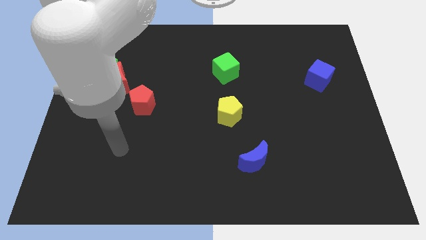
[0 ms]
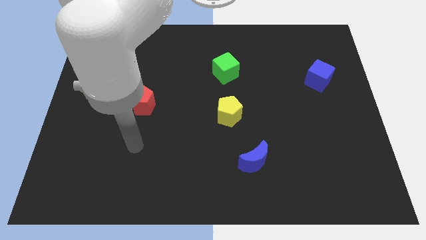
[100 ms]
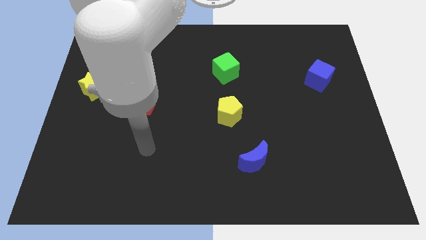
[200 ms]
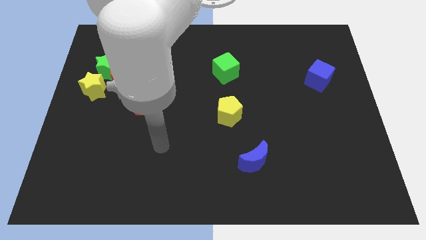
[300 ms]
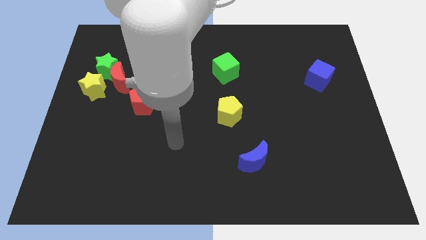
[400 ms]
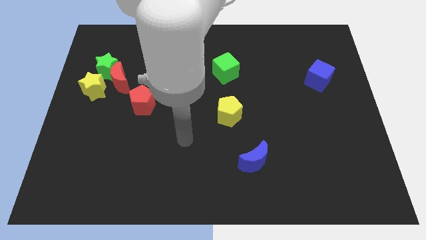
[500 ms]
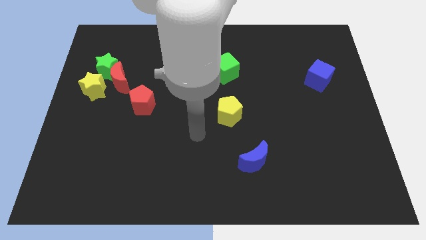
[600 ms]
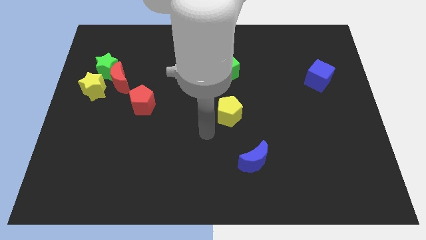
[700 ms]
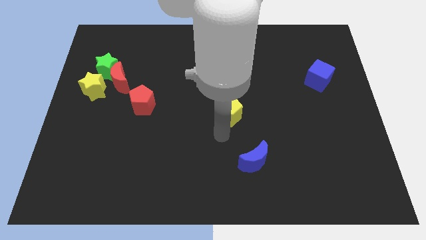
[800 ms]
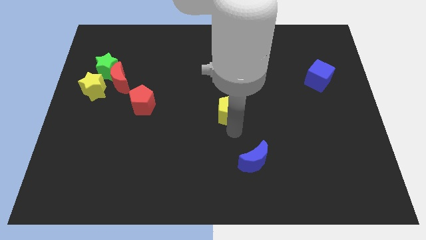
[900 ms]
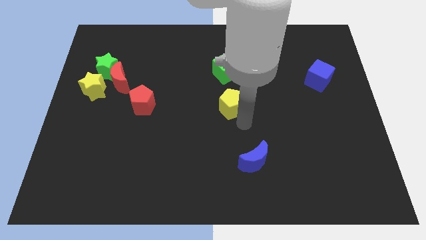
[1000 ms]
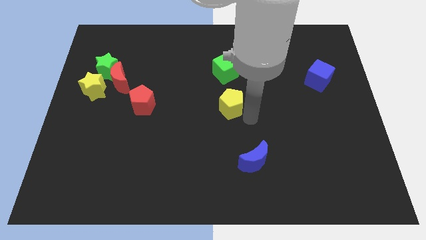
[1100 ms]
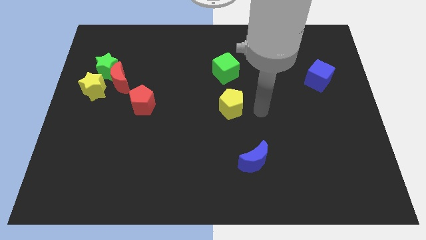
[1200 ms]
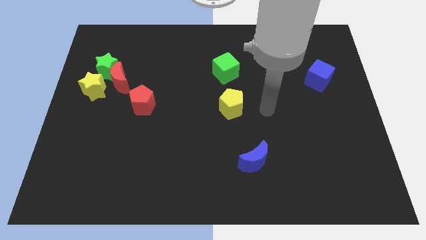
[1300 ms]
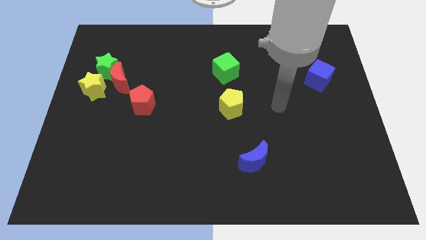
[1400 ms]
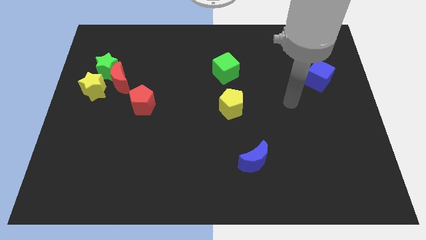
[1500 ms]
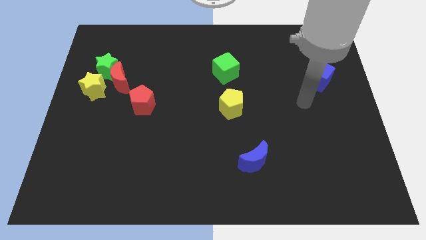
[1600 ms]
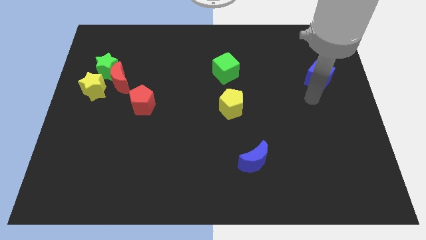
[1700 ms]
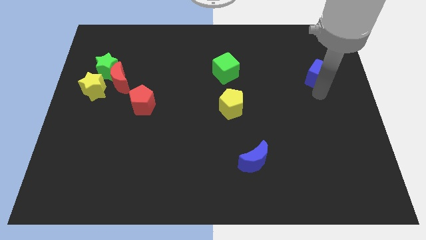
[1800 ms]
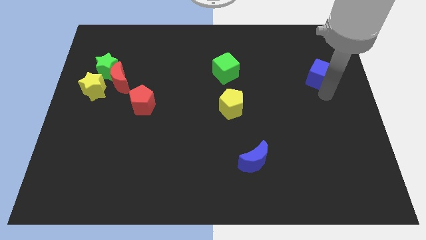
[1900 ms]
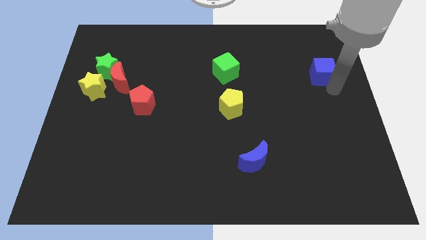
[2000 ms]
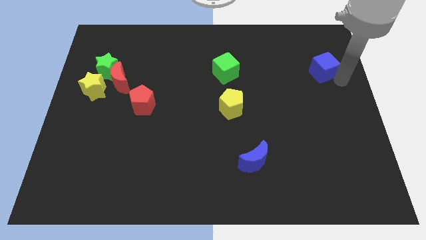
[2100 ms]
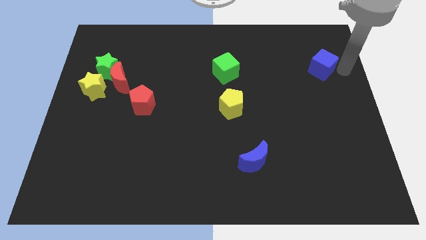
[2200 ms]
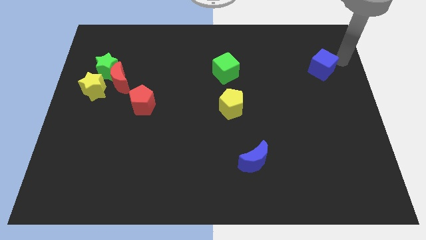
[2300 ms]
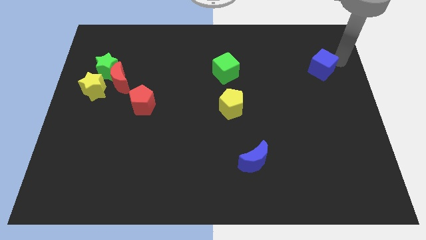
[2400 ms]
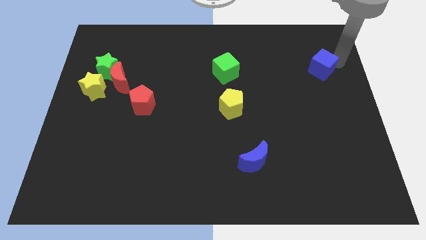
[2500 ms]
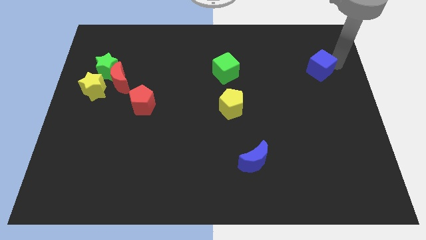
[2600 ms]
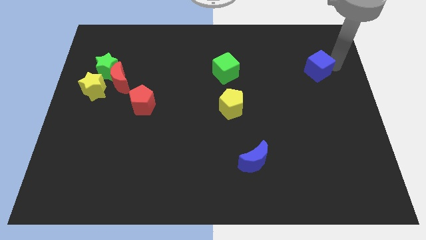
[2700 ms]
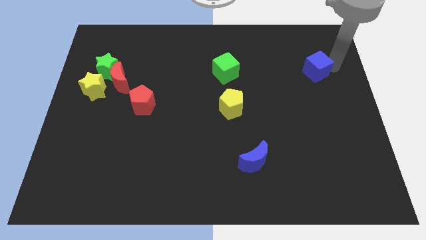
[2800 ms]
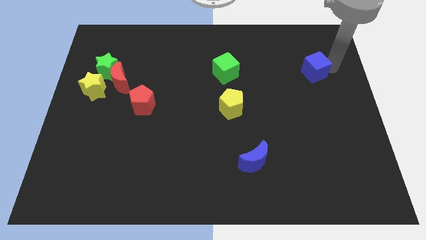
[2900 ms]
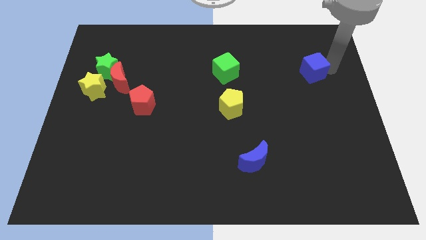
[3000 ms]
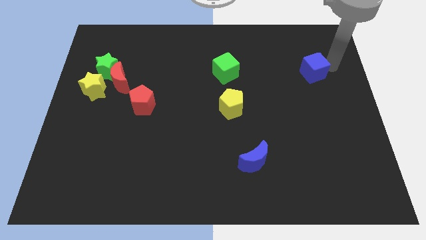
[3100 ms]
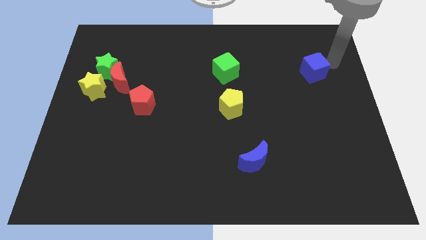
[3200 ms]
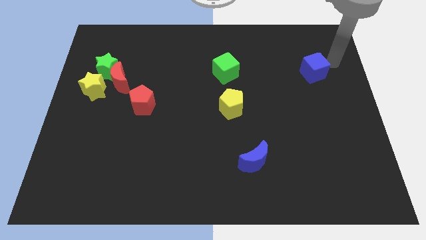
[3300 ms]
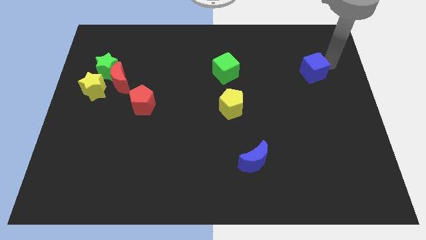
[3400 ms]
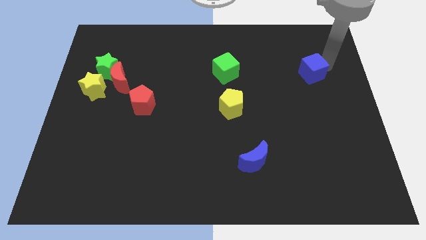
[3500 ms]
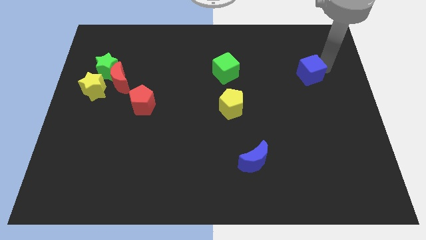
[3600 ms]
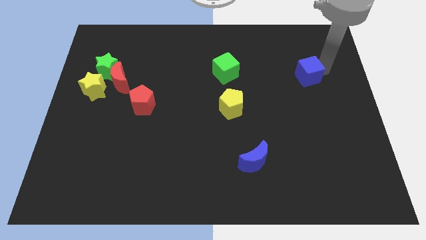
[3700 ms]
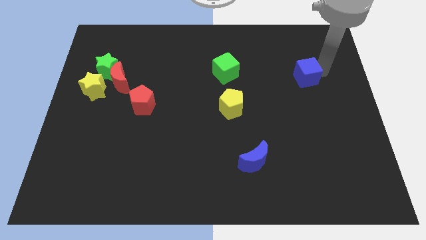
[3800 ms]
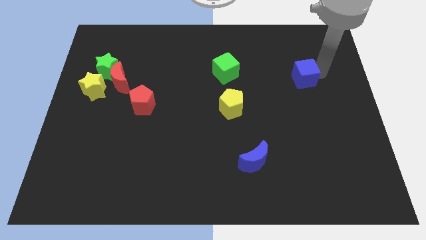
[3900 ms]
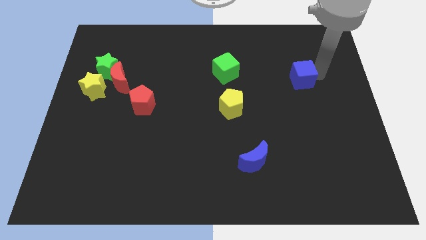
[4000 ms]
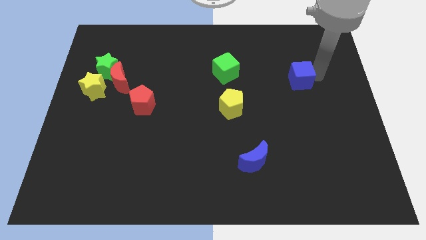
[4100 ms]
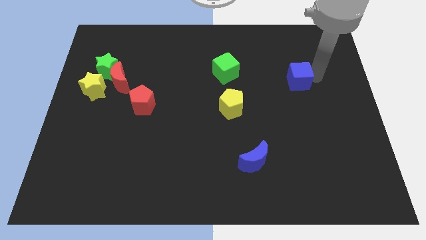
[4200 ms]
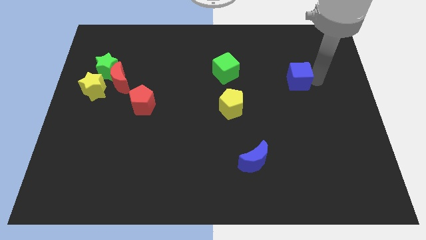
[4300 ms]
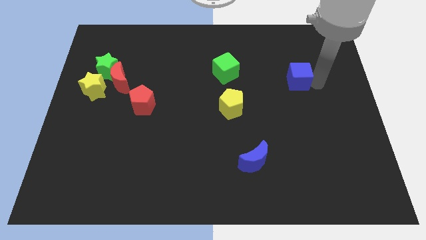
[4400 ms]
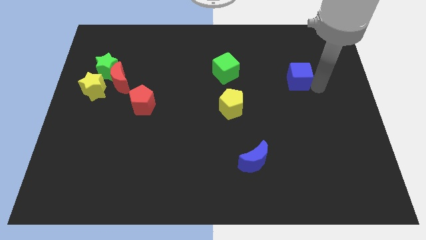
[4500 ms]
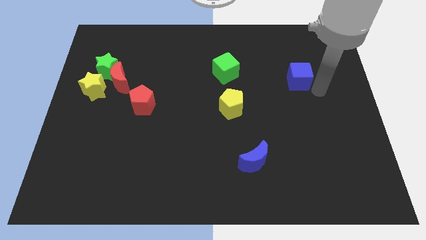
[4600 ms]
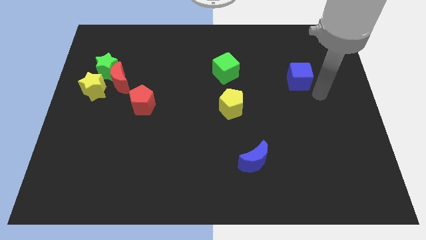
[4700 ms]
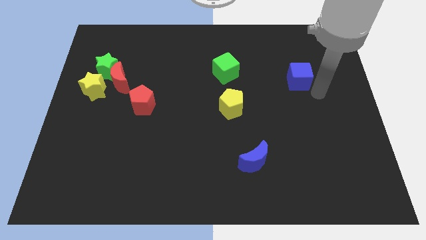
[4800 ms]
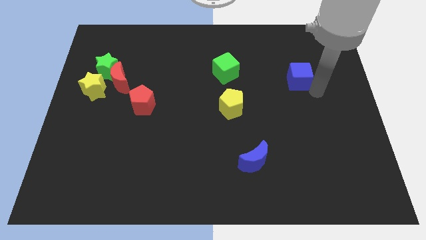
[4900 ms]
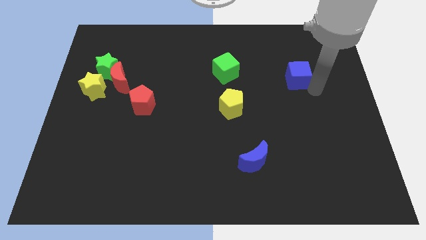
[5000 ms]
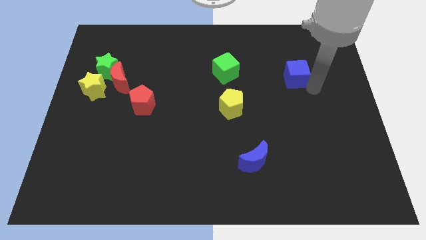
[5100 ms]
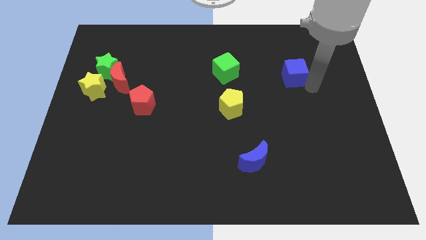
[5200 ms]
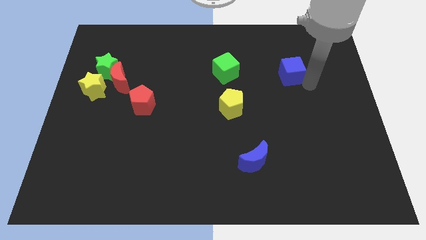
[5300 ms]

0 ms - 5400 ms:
move the blue cube left a bit

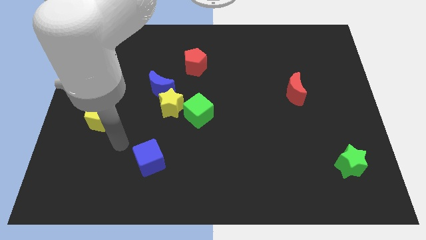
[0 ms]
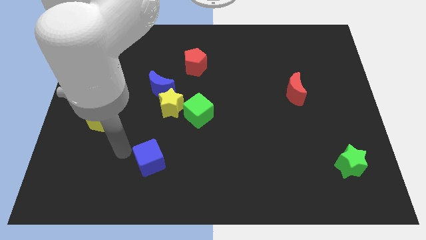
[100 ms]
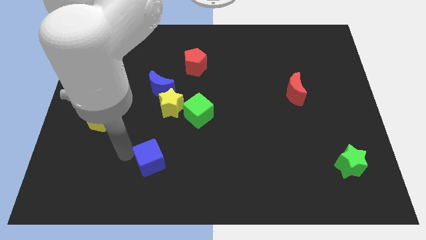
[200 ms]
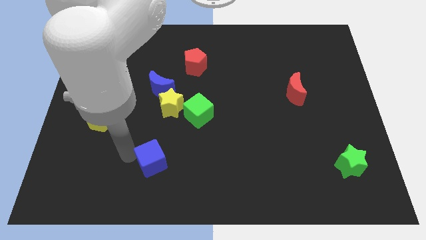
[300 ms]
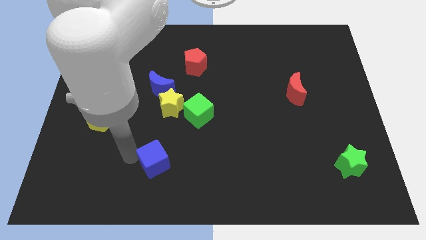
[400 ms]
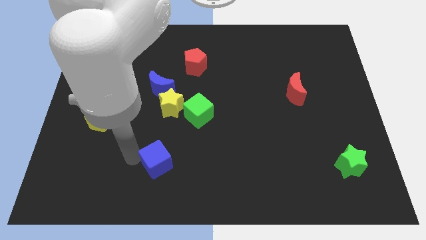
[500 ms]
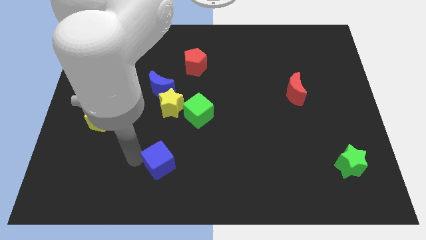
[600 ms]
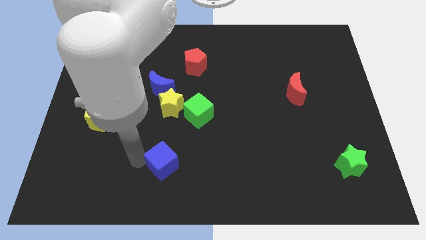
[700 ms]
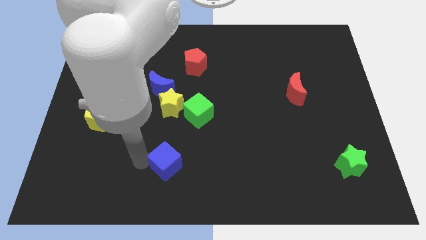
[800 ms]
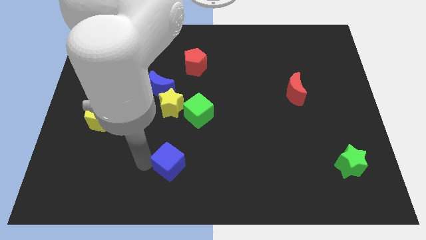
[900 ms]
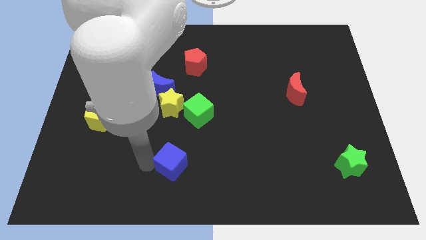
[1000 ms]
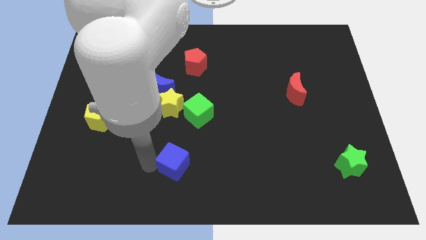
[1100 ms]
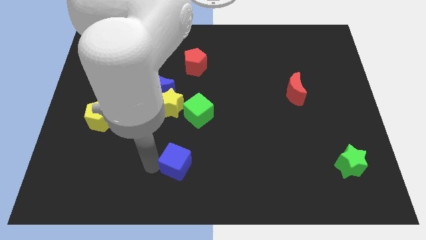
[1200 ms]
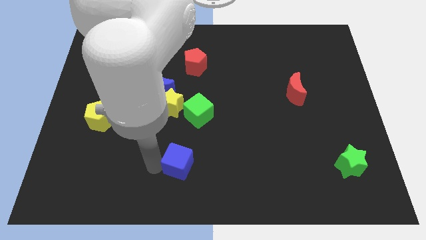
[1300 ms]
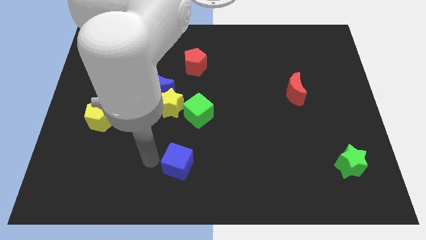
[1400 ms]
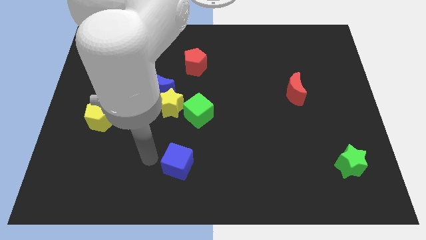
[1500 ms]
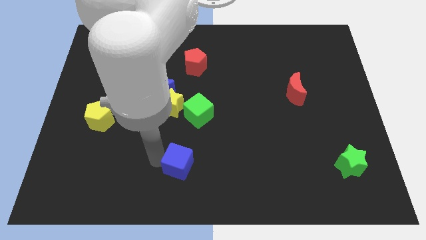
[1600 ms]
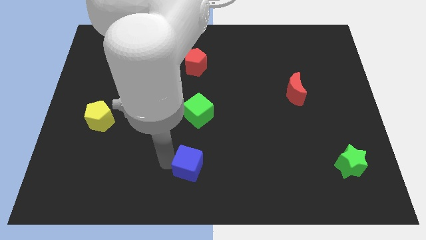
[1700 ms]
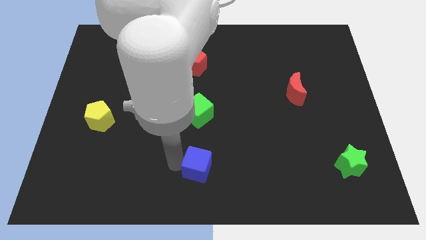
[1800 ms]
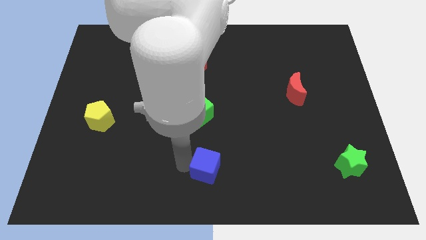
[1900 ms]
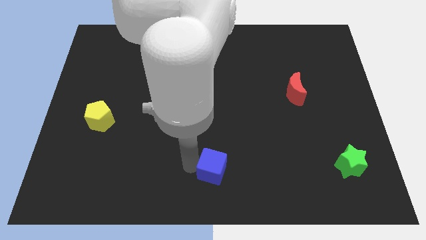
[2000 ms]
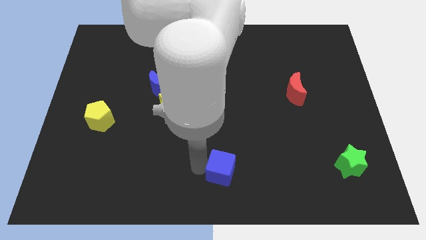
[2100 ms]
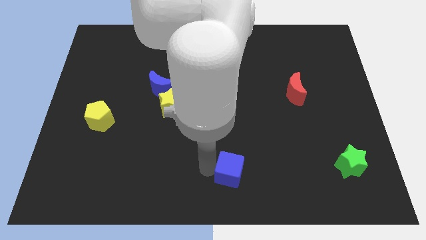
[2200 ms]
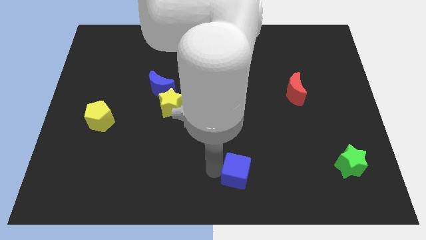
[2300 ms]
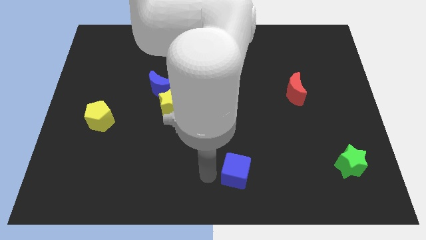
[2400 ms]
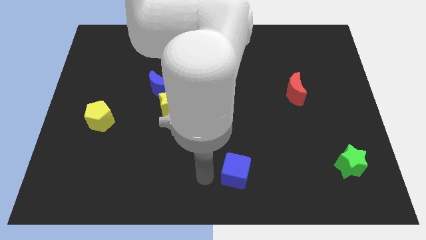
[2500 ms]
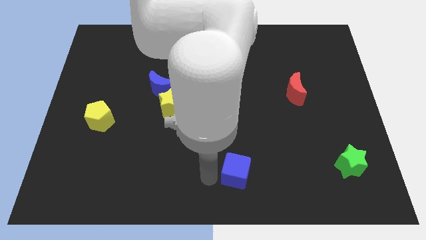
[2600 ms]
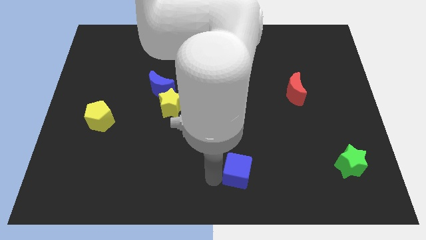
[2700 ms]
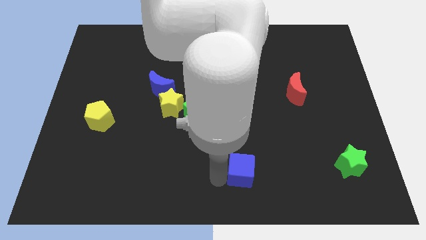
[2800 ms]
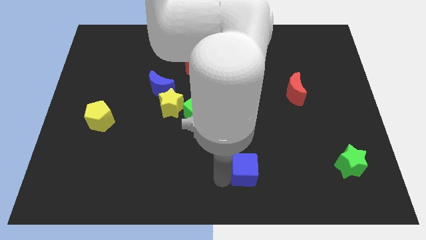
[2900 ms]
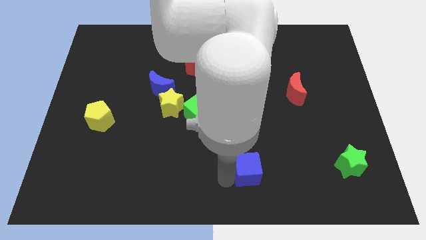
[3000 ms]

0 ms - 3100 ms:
move the blue cube to the right
